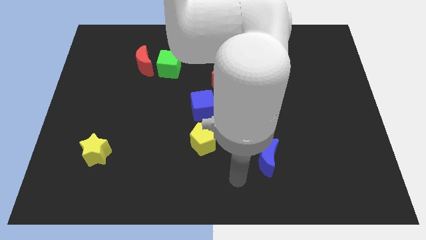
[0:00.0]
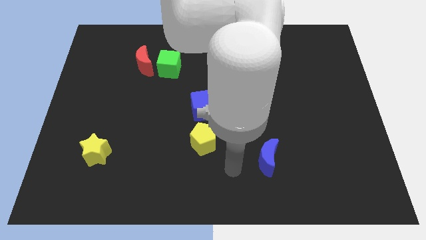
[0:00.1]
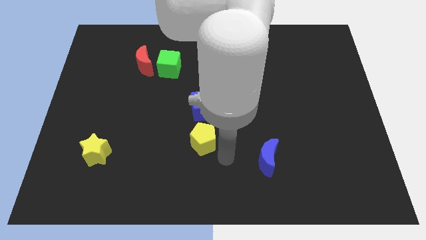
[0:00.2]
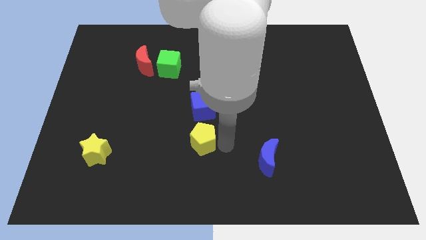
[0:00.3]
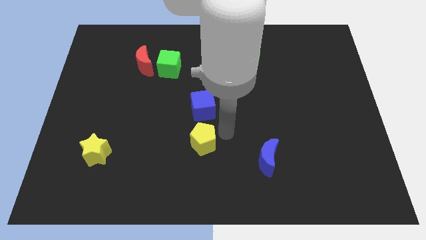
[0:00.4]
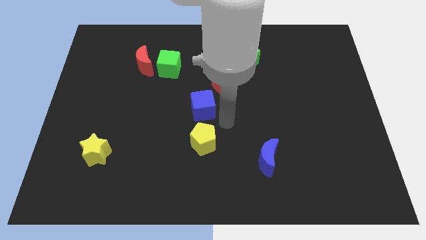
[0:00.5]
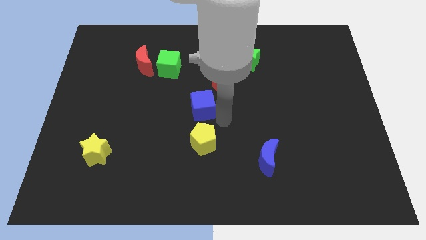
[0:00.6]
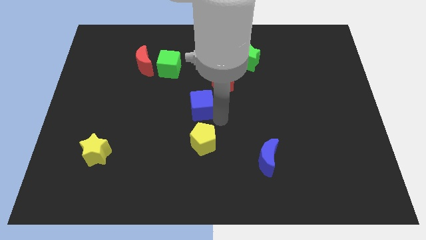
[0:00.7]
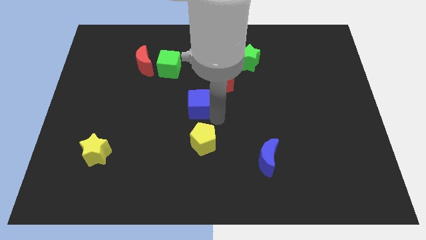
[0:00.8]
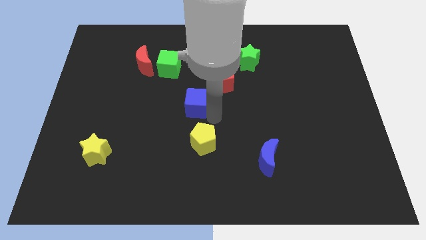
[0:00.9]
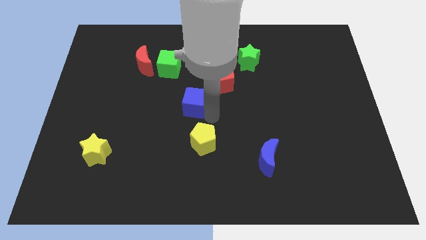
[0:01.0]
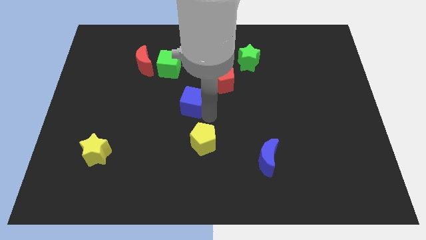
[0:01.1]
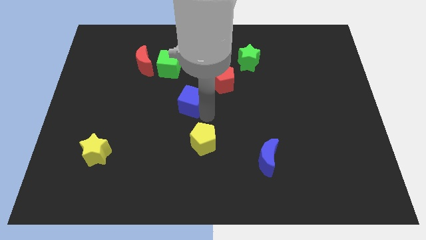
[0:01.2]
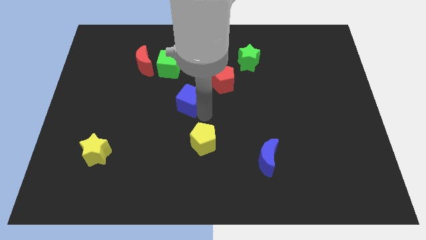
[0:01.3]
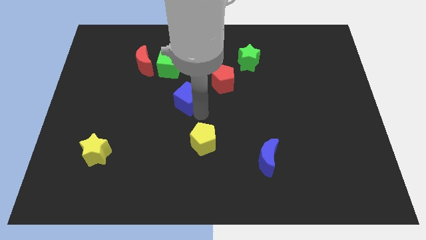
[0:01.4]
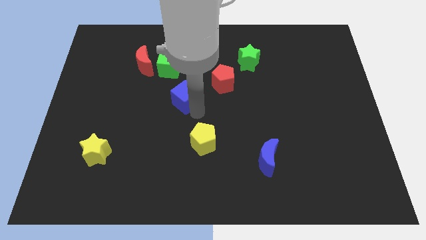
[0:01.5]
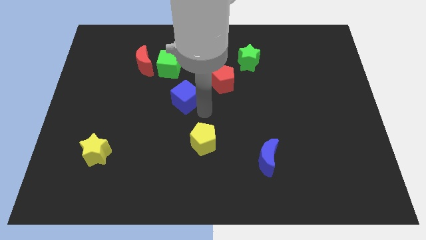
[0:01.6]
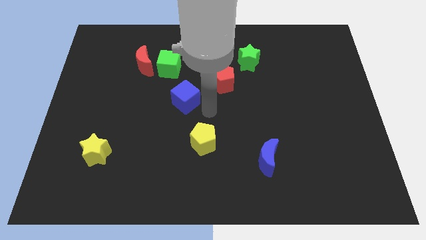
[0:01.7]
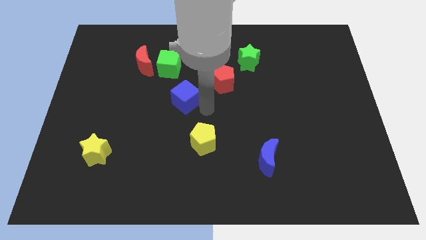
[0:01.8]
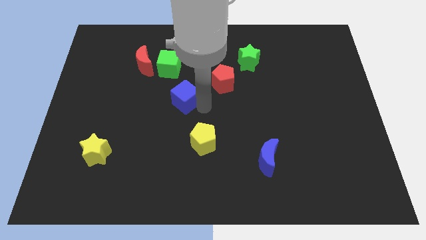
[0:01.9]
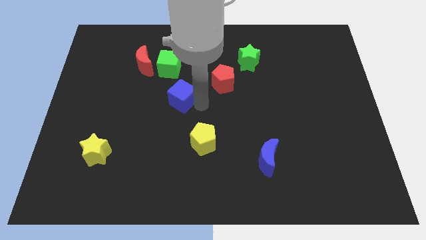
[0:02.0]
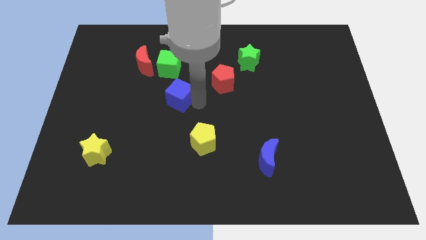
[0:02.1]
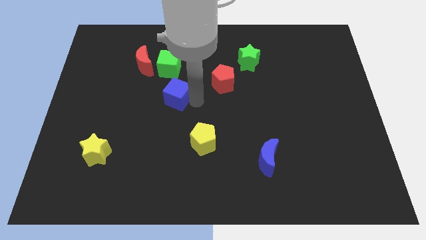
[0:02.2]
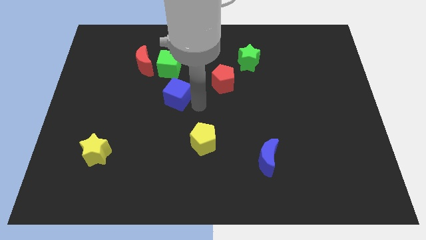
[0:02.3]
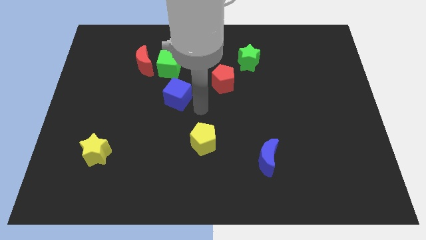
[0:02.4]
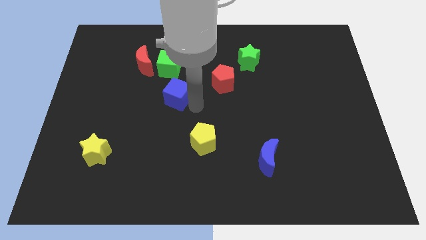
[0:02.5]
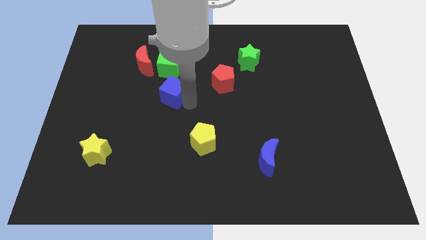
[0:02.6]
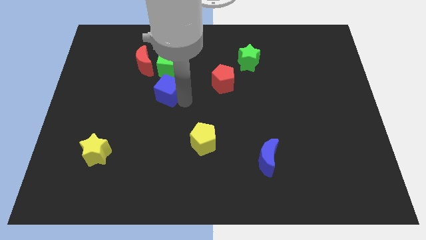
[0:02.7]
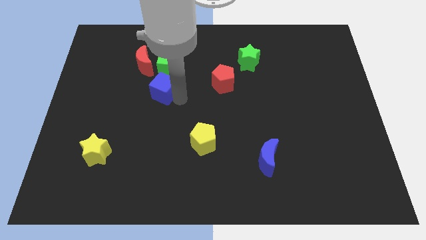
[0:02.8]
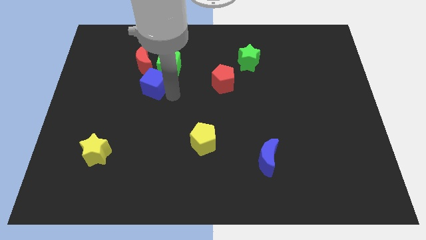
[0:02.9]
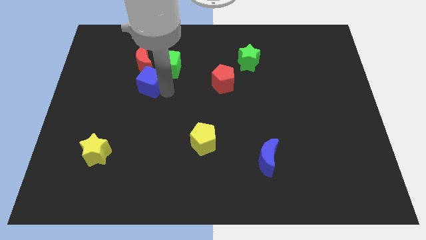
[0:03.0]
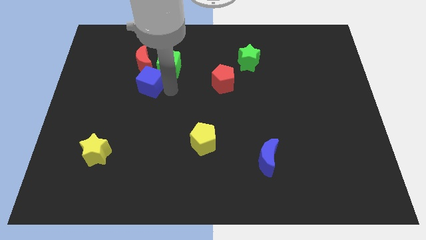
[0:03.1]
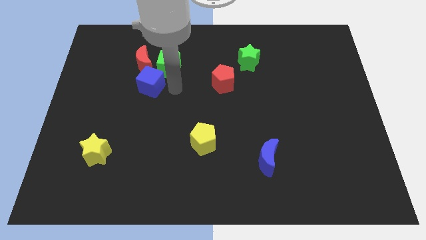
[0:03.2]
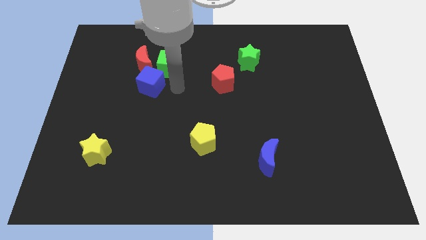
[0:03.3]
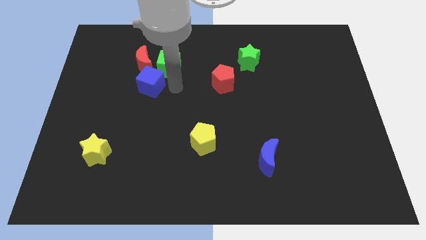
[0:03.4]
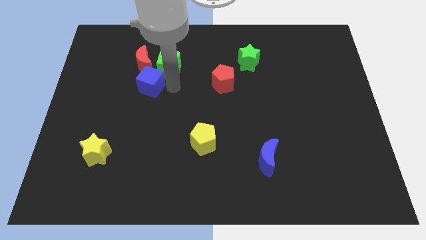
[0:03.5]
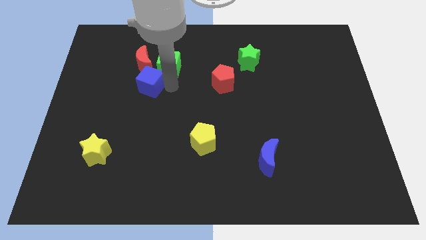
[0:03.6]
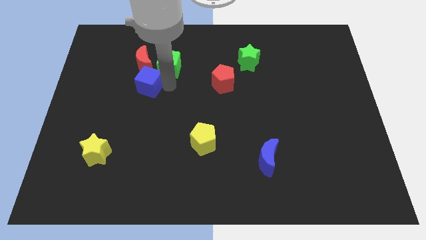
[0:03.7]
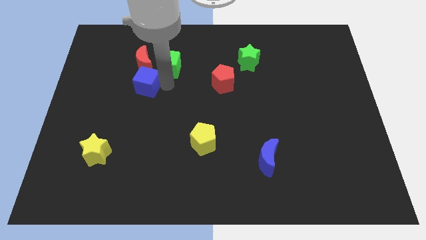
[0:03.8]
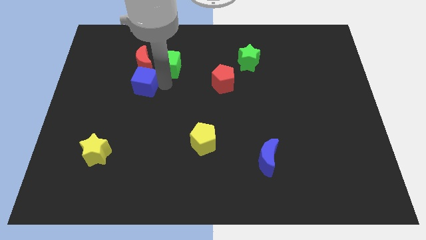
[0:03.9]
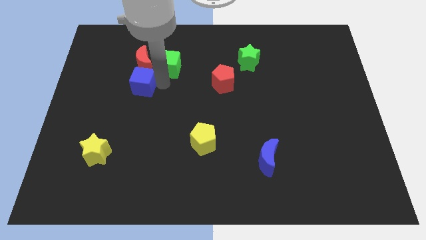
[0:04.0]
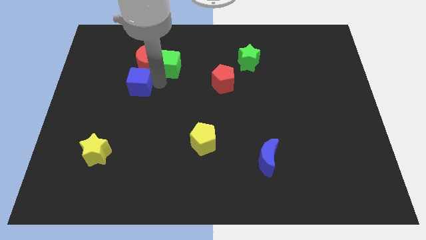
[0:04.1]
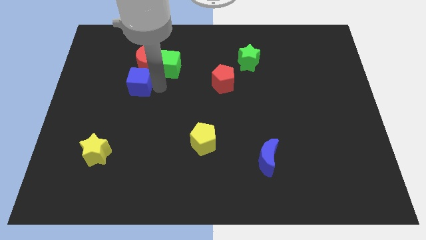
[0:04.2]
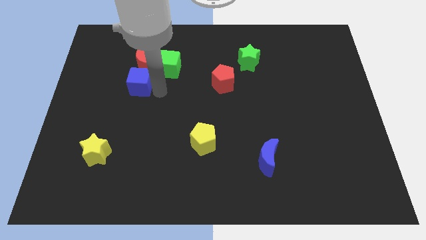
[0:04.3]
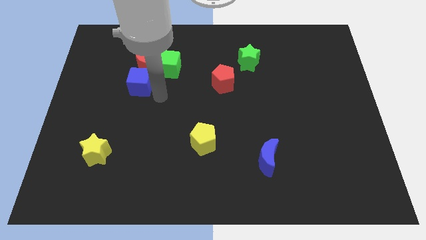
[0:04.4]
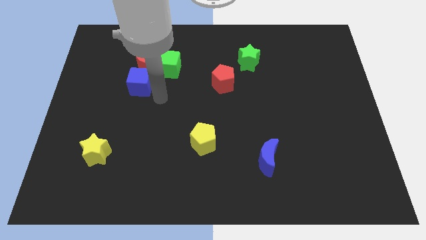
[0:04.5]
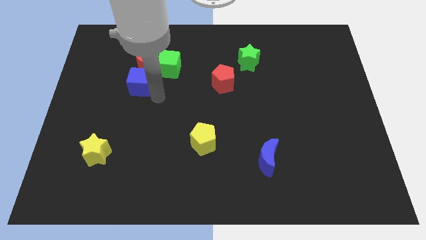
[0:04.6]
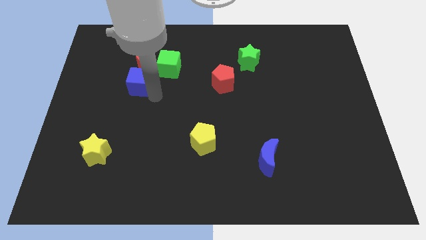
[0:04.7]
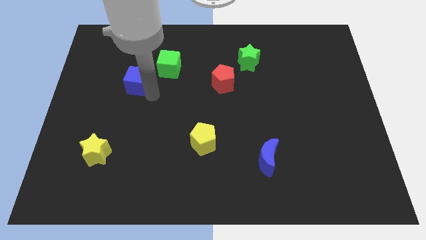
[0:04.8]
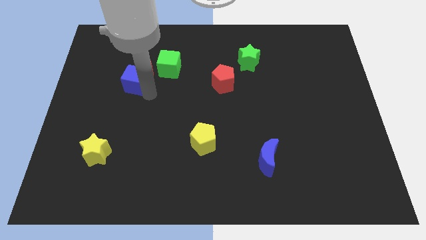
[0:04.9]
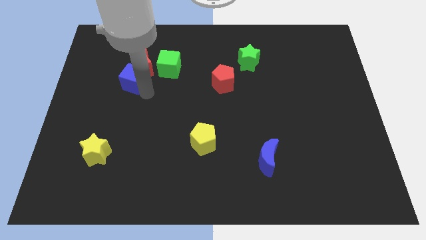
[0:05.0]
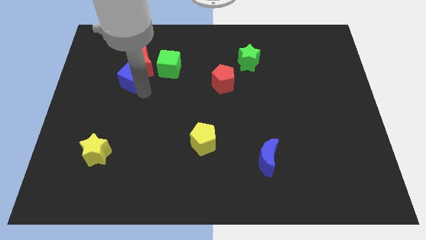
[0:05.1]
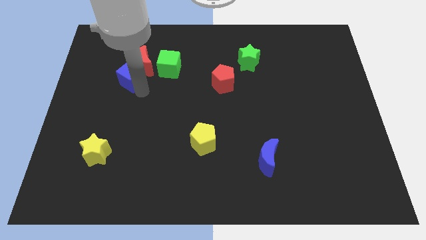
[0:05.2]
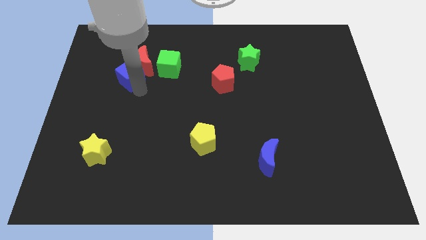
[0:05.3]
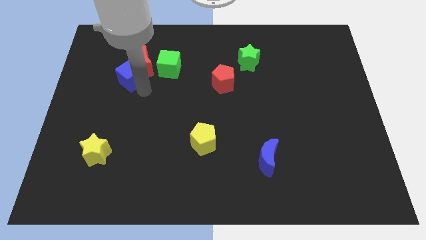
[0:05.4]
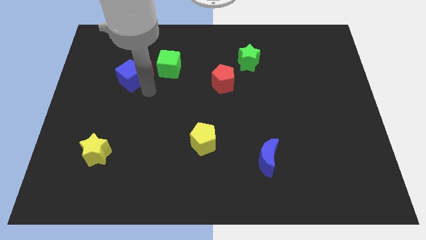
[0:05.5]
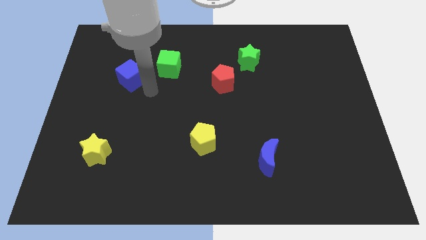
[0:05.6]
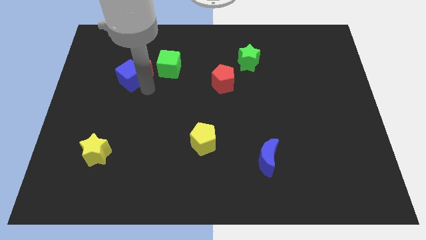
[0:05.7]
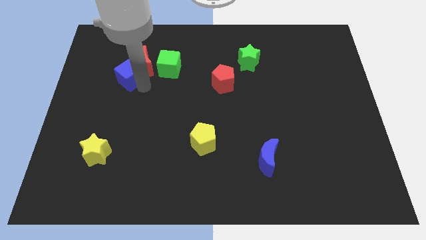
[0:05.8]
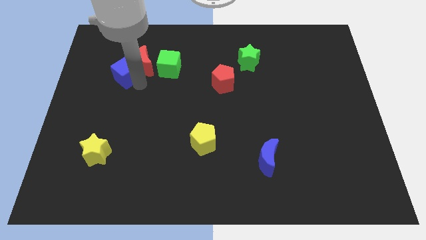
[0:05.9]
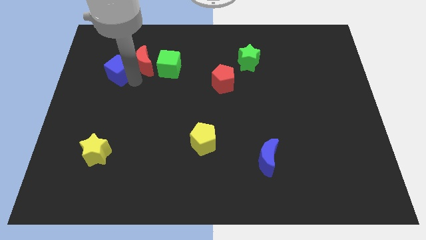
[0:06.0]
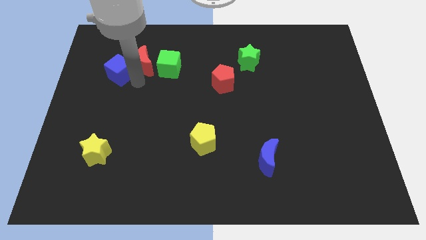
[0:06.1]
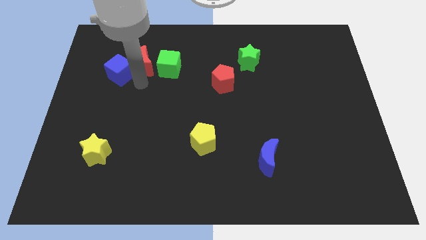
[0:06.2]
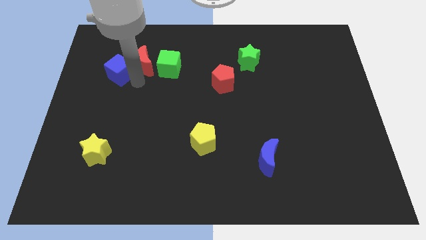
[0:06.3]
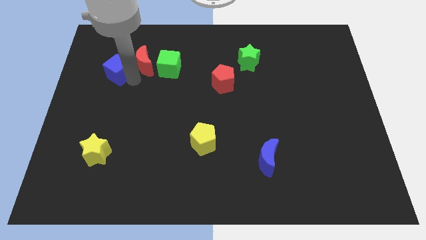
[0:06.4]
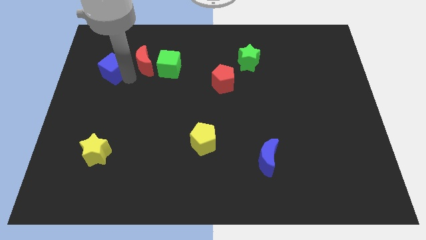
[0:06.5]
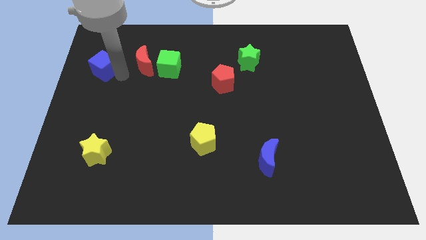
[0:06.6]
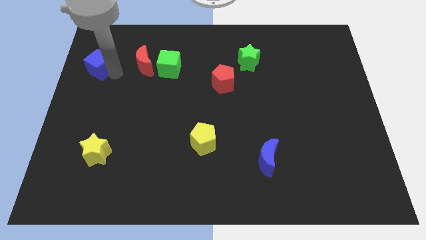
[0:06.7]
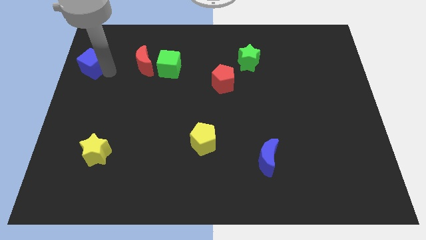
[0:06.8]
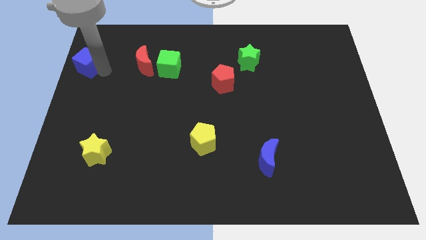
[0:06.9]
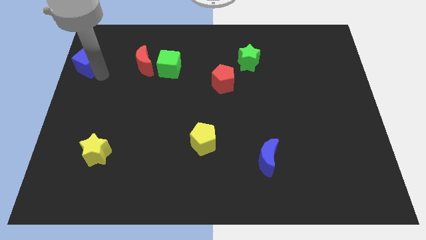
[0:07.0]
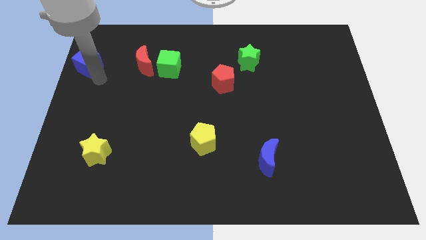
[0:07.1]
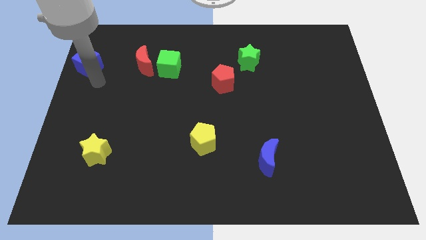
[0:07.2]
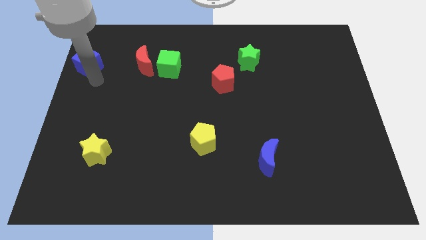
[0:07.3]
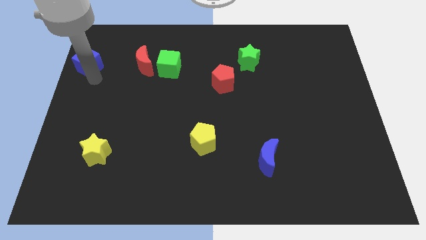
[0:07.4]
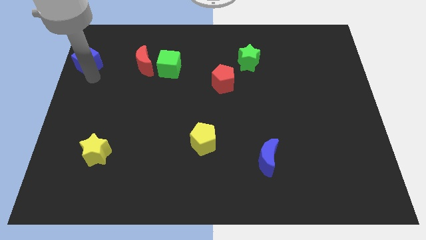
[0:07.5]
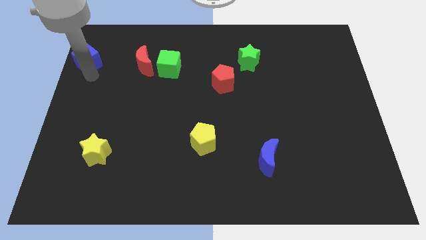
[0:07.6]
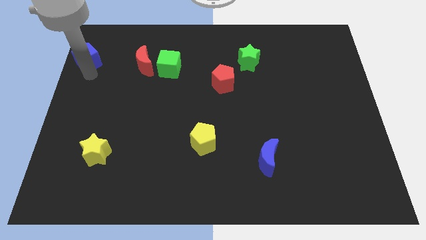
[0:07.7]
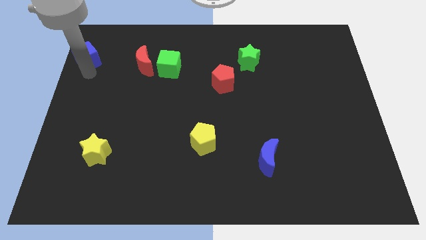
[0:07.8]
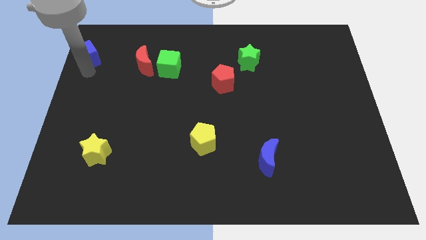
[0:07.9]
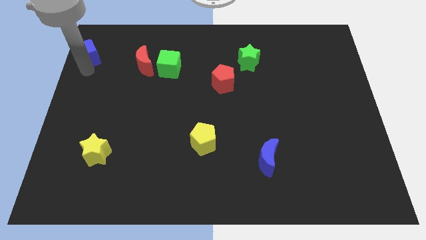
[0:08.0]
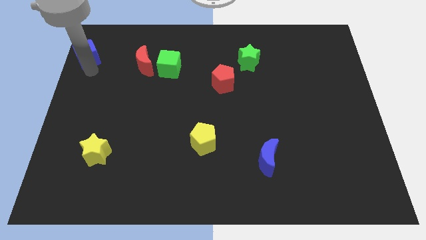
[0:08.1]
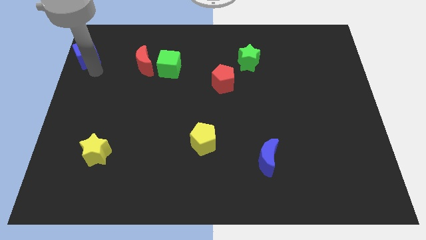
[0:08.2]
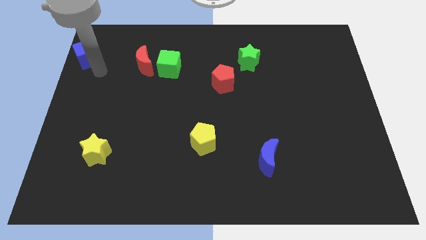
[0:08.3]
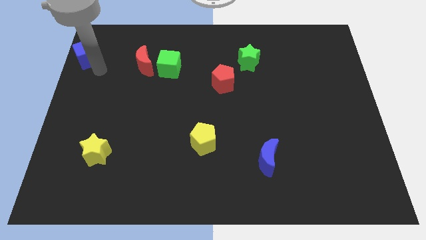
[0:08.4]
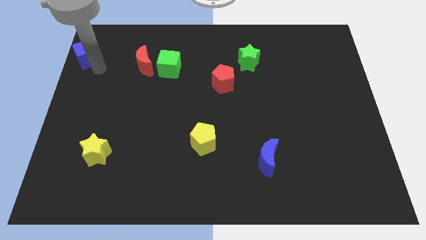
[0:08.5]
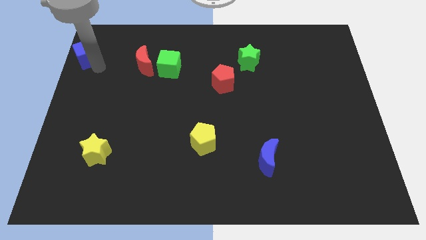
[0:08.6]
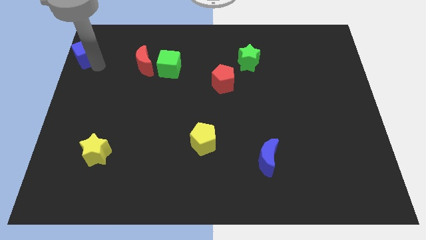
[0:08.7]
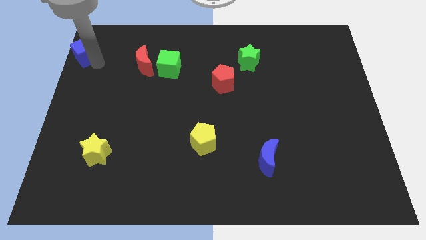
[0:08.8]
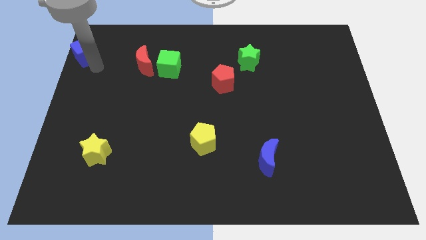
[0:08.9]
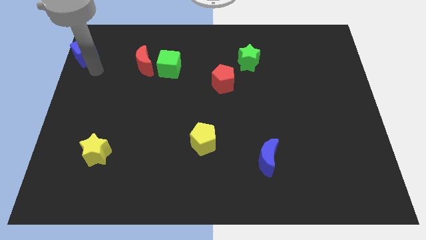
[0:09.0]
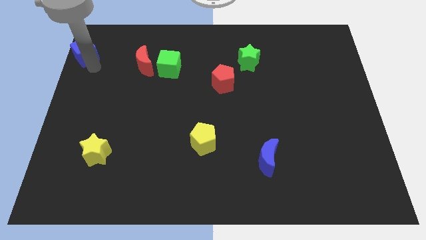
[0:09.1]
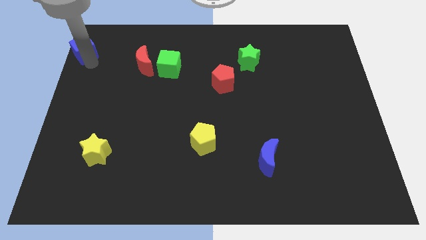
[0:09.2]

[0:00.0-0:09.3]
move the blue cube to the top left
